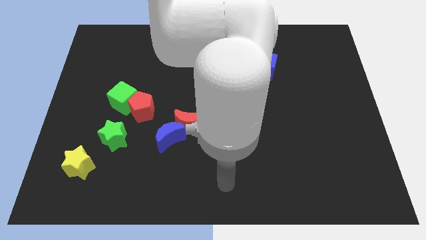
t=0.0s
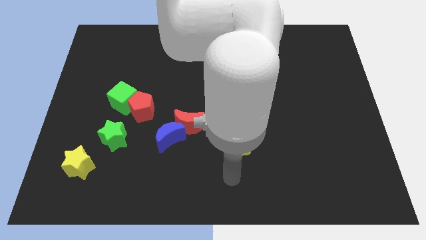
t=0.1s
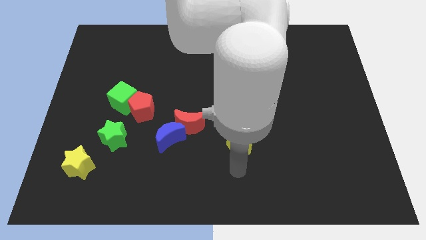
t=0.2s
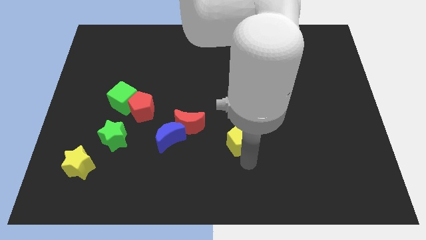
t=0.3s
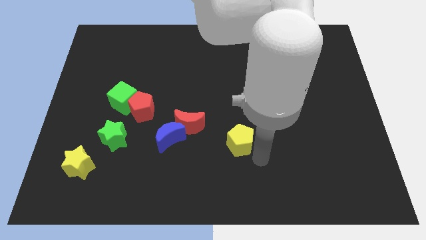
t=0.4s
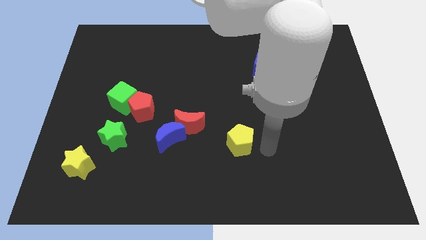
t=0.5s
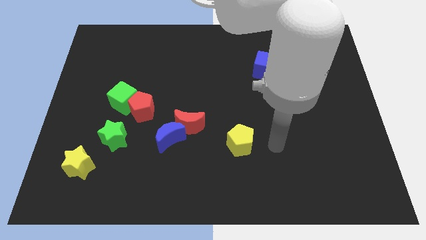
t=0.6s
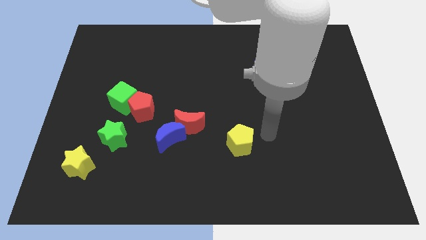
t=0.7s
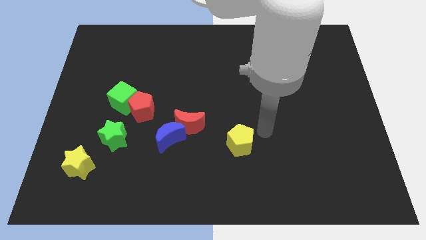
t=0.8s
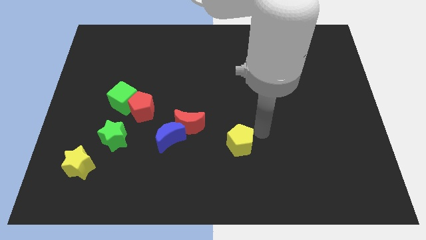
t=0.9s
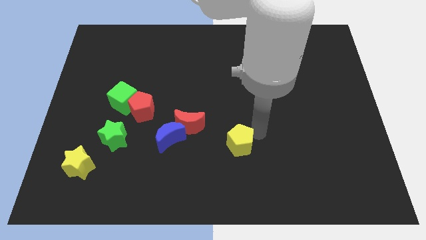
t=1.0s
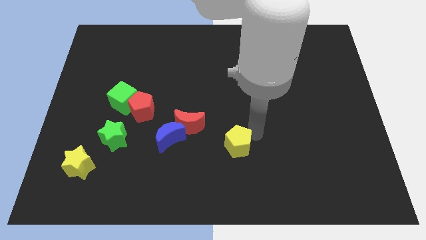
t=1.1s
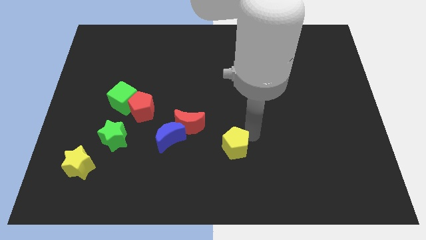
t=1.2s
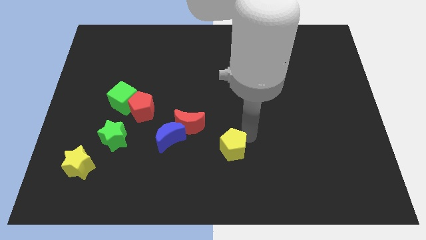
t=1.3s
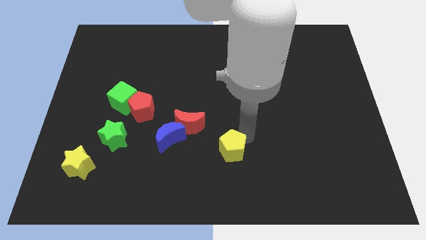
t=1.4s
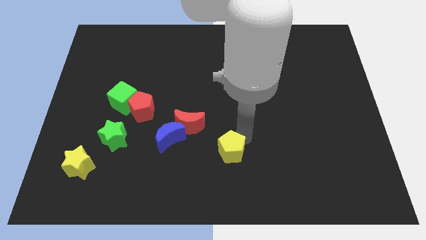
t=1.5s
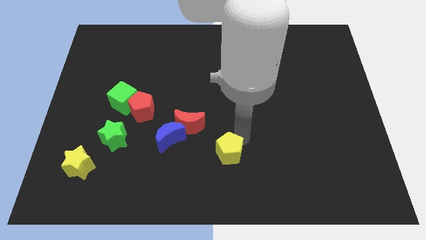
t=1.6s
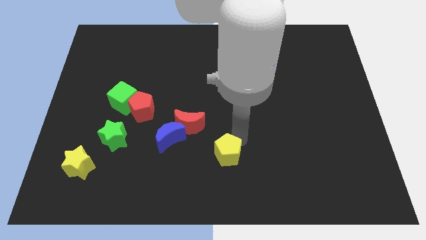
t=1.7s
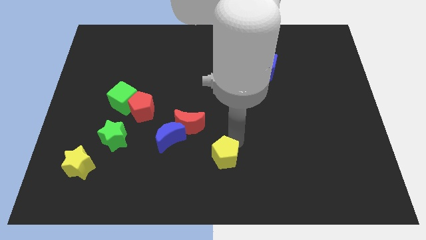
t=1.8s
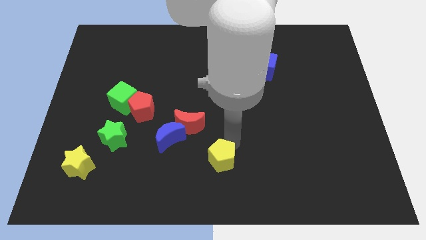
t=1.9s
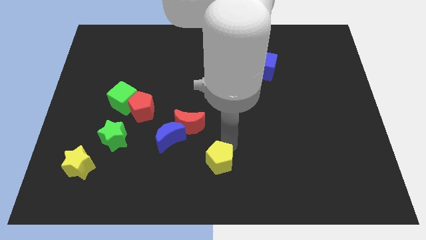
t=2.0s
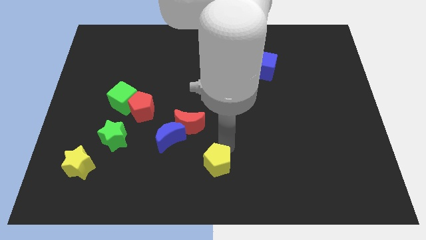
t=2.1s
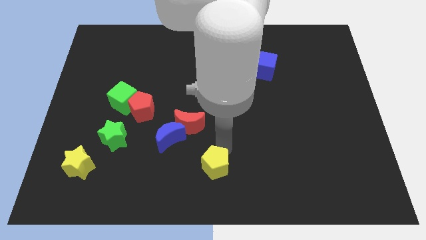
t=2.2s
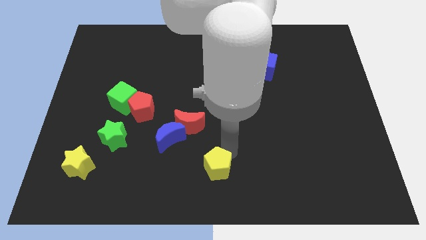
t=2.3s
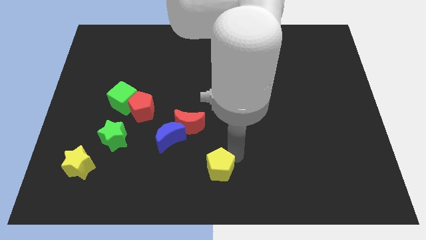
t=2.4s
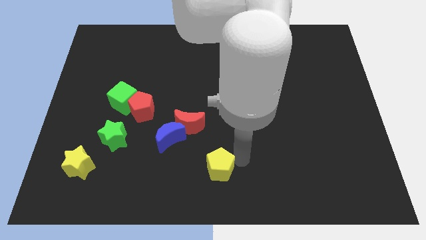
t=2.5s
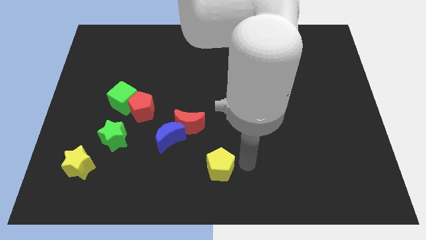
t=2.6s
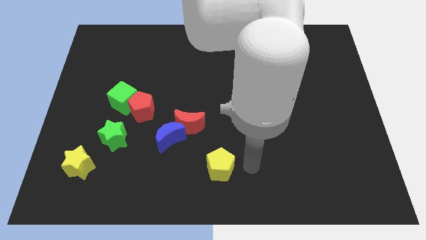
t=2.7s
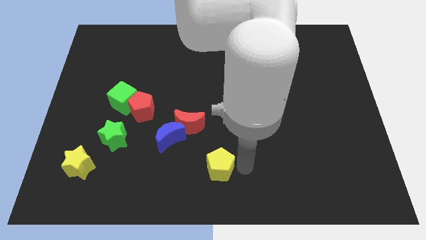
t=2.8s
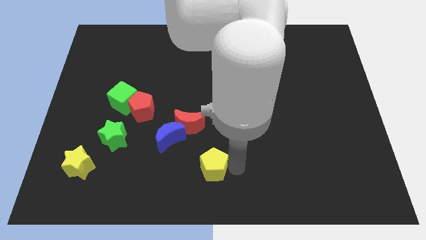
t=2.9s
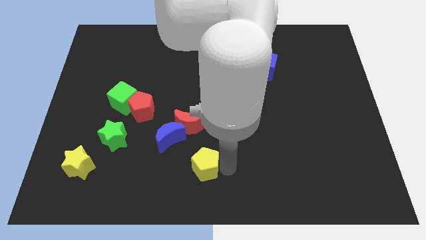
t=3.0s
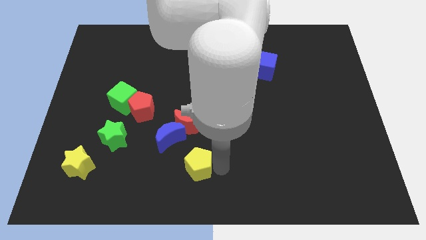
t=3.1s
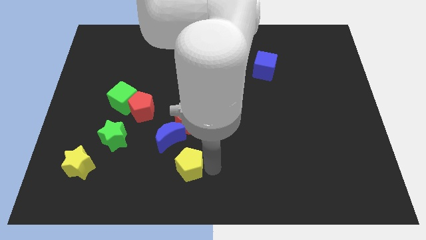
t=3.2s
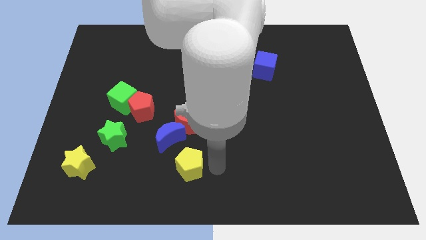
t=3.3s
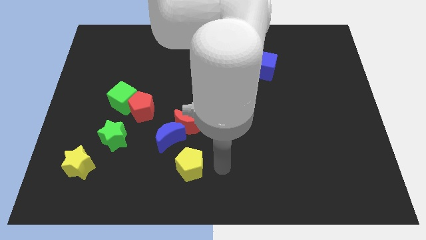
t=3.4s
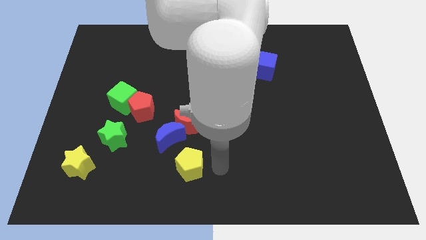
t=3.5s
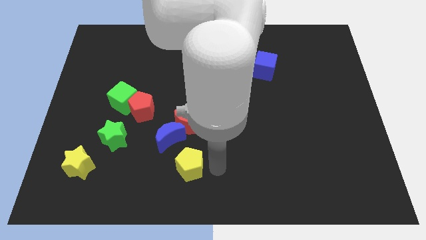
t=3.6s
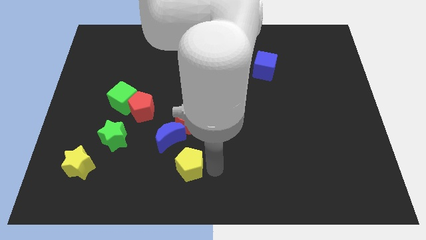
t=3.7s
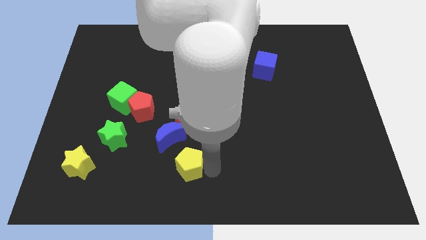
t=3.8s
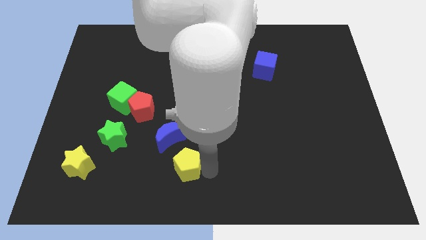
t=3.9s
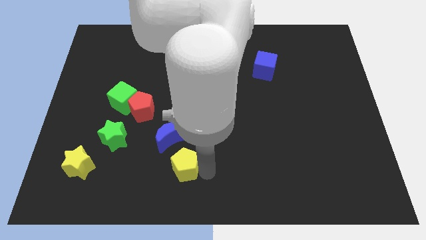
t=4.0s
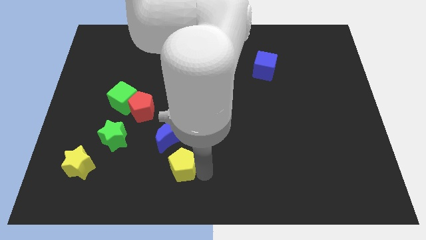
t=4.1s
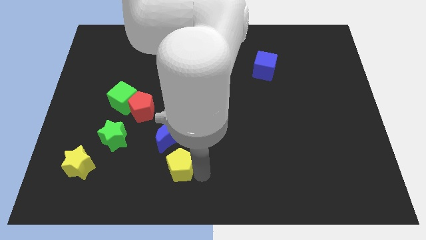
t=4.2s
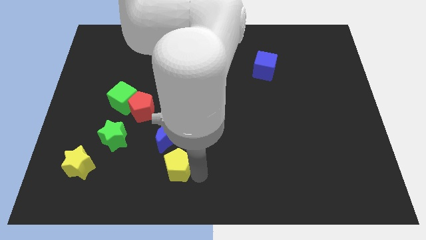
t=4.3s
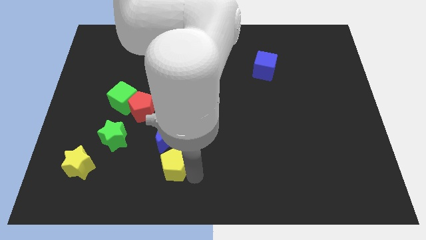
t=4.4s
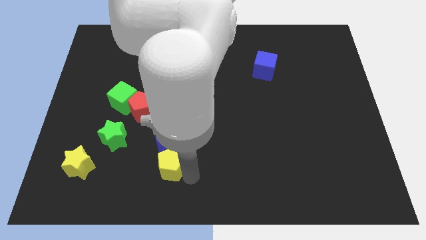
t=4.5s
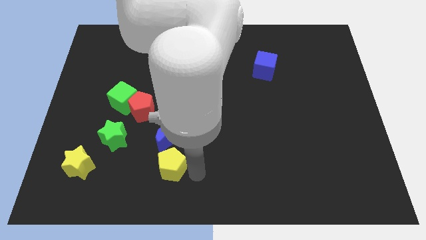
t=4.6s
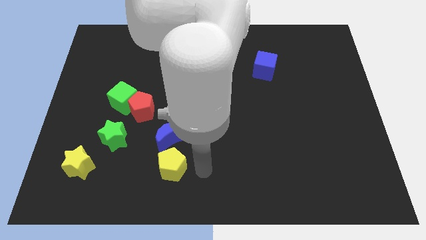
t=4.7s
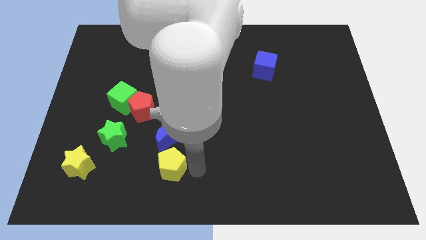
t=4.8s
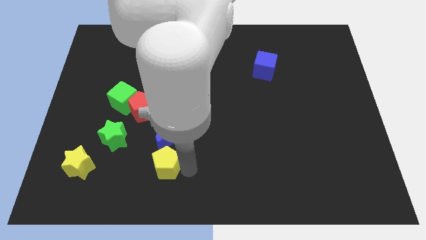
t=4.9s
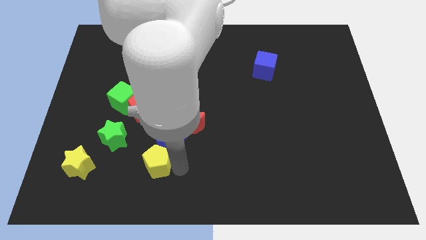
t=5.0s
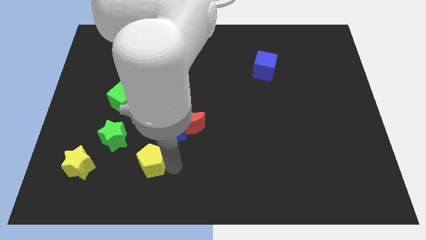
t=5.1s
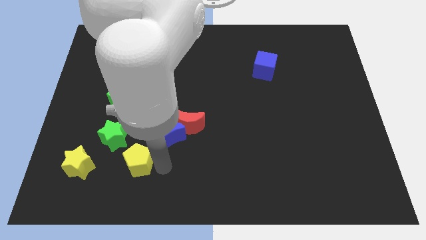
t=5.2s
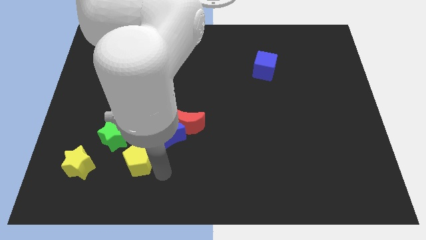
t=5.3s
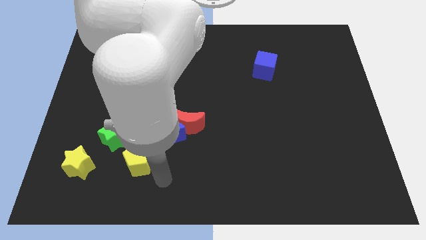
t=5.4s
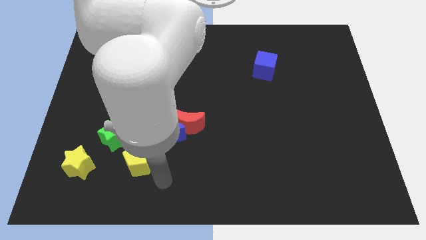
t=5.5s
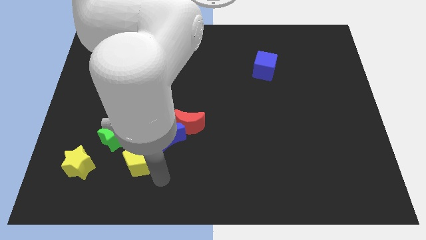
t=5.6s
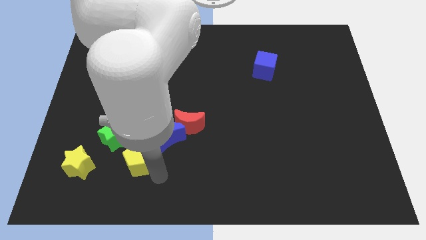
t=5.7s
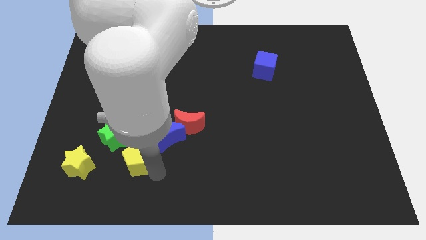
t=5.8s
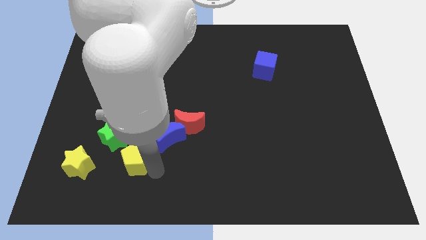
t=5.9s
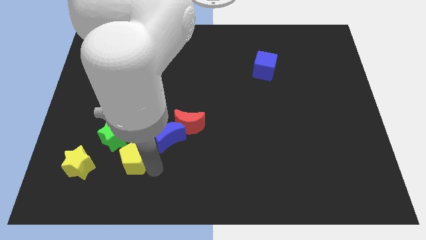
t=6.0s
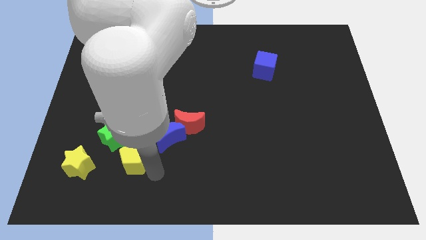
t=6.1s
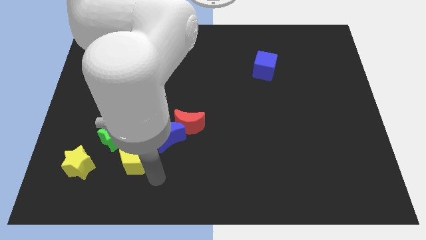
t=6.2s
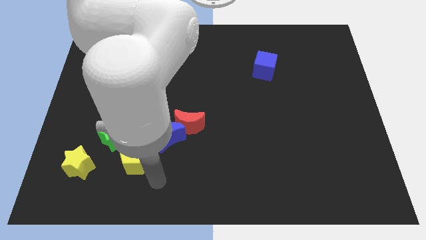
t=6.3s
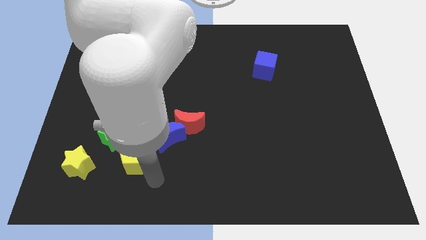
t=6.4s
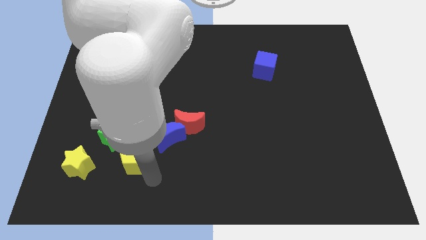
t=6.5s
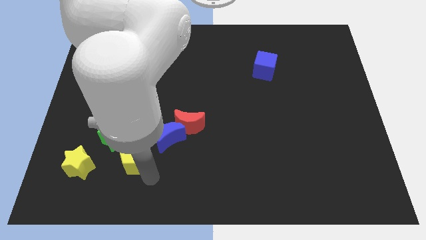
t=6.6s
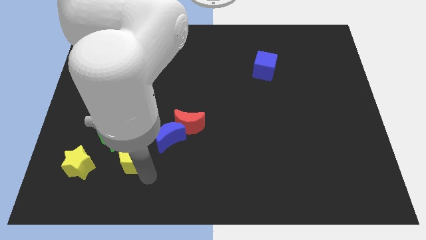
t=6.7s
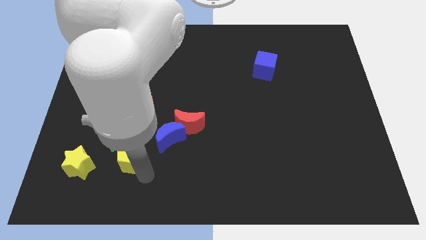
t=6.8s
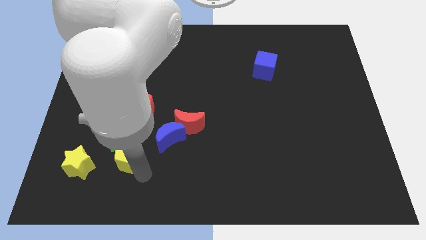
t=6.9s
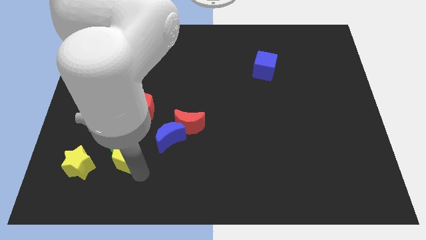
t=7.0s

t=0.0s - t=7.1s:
put the yellow pentagon towards the green star
